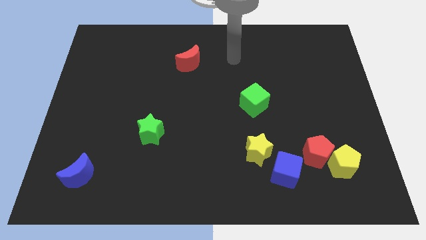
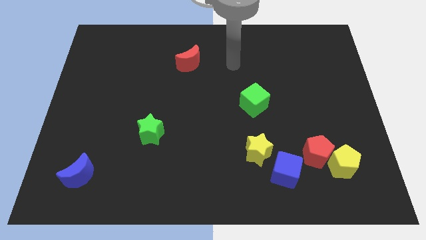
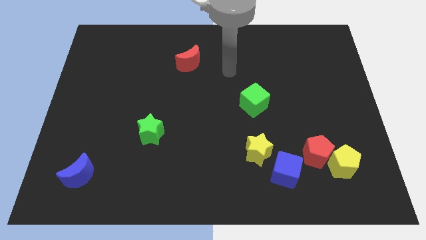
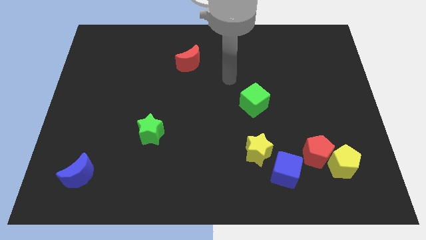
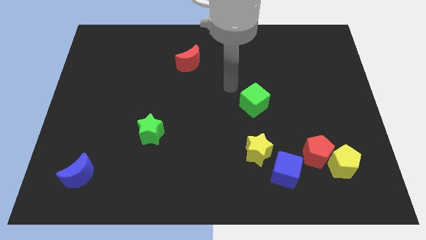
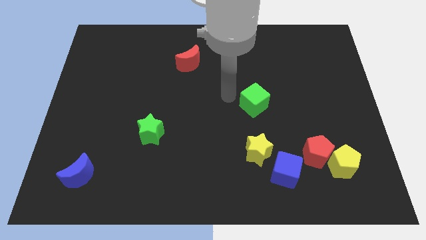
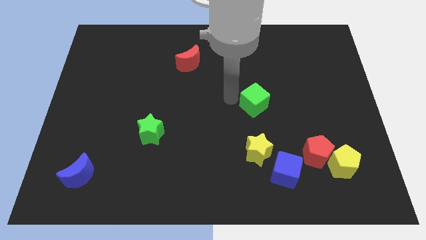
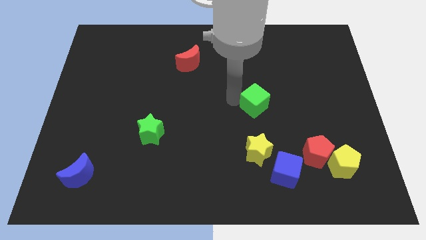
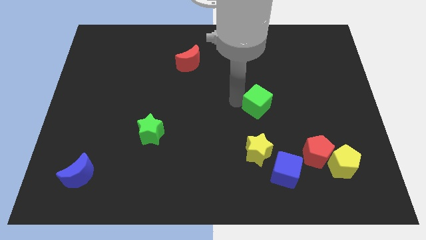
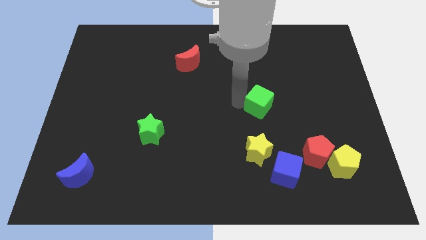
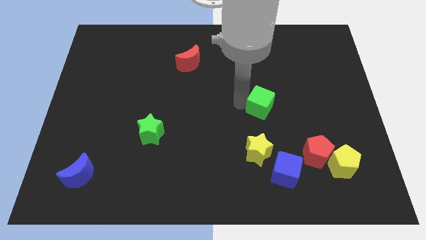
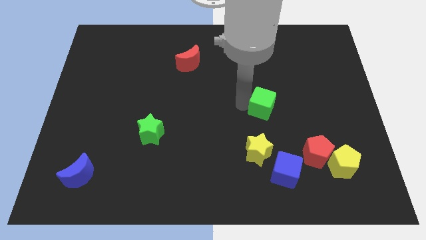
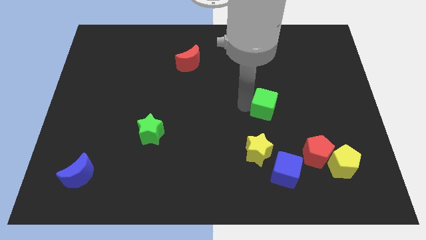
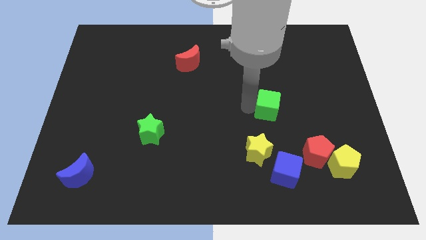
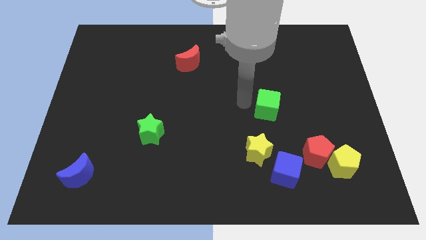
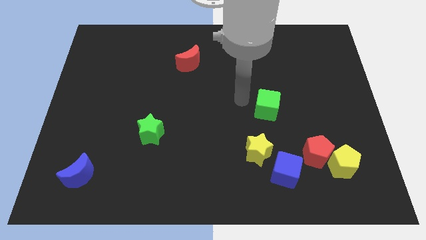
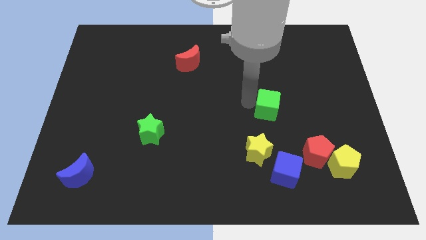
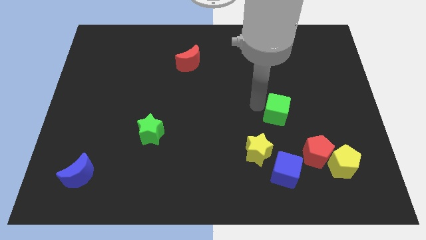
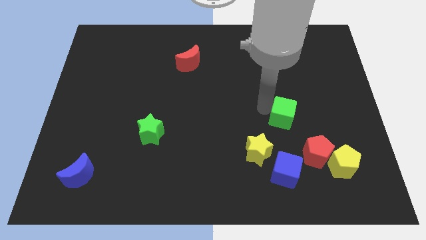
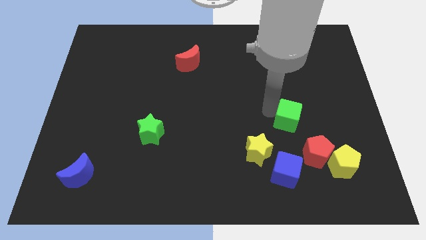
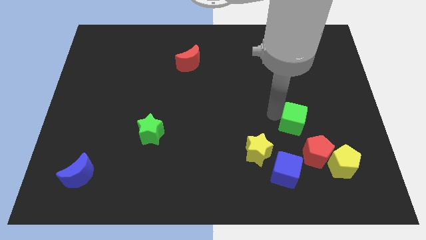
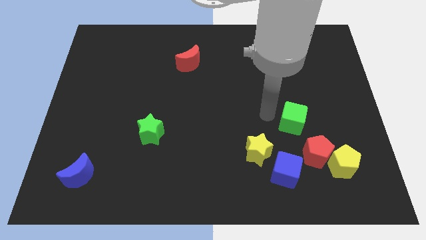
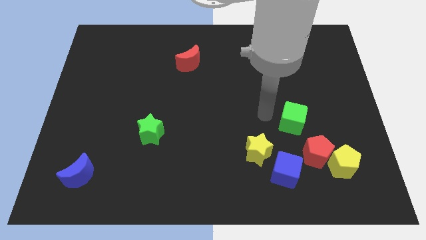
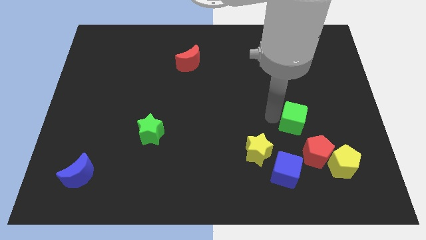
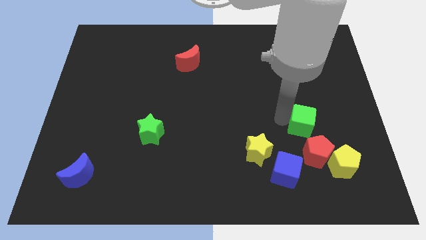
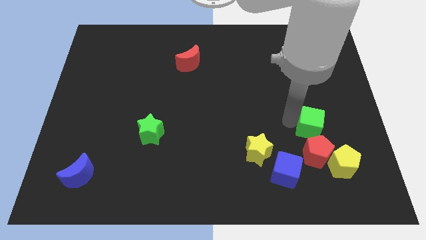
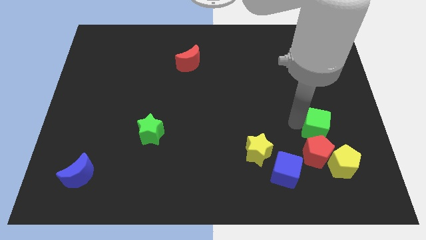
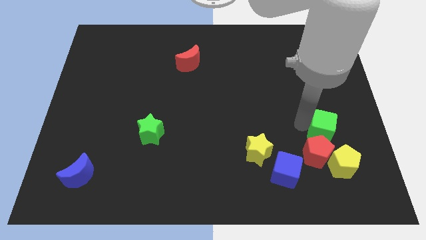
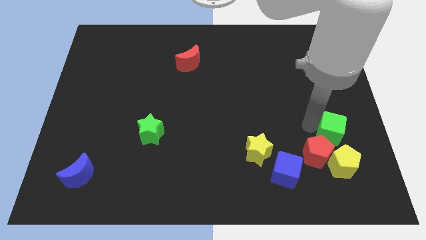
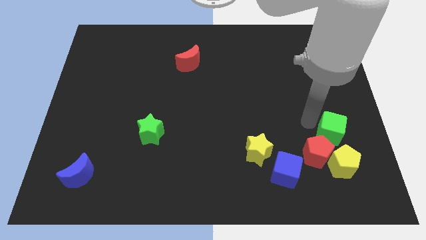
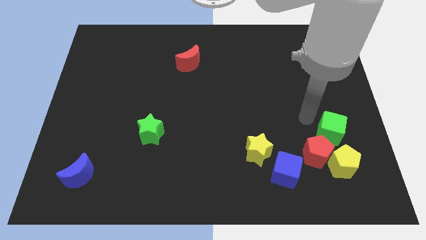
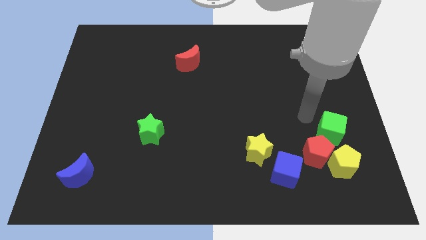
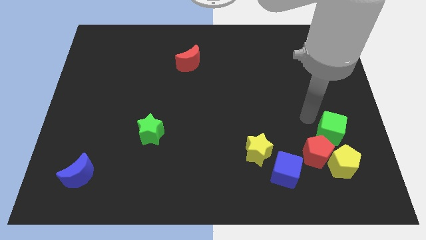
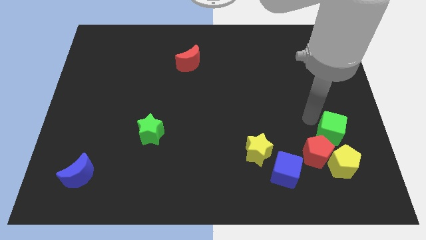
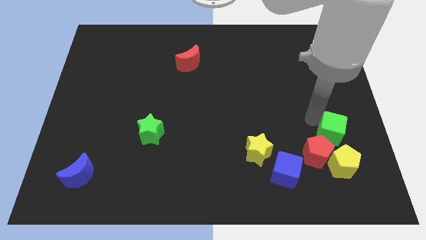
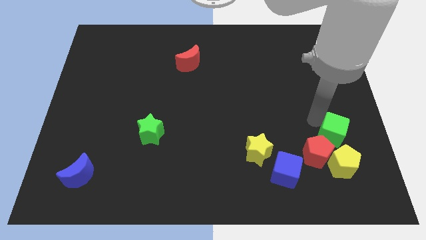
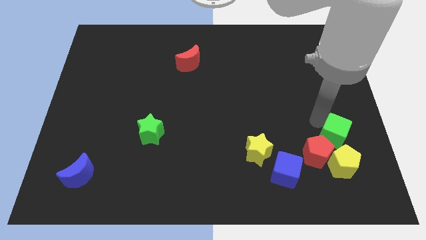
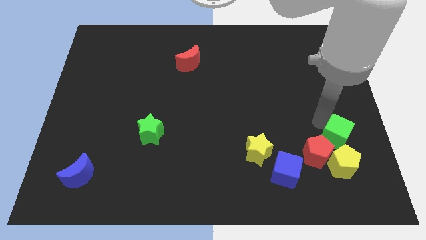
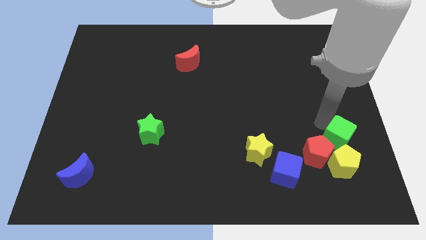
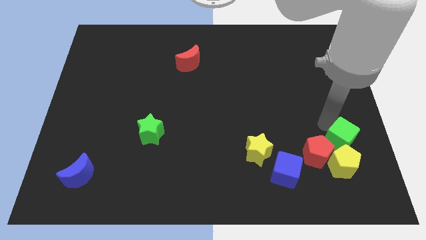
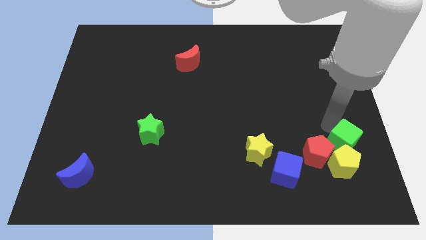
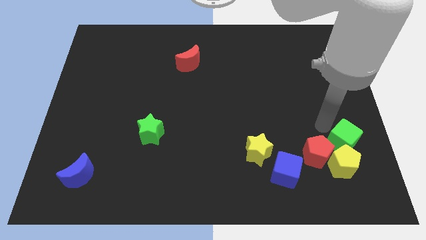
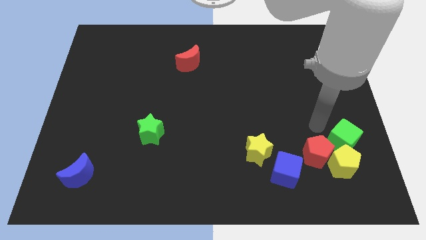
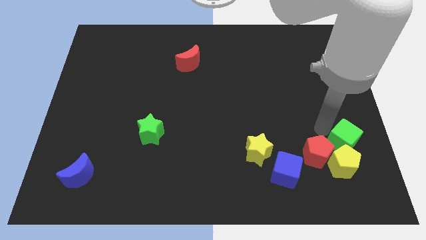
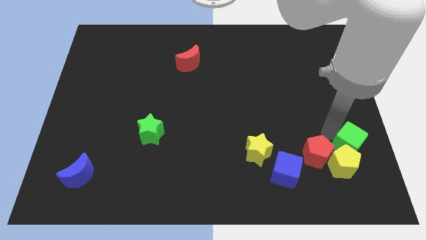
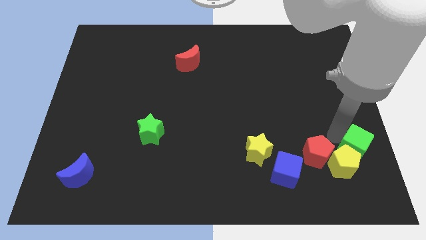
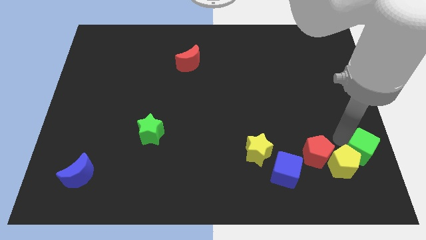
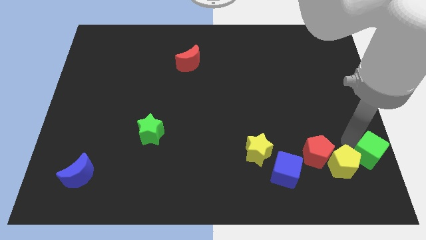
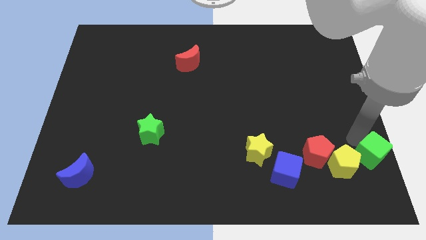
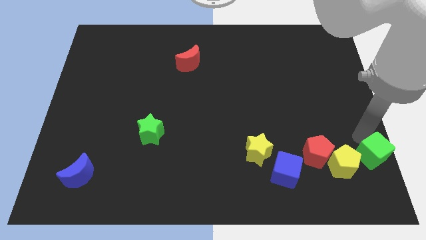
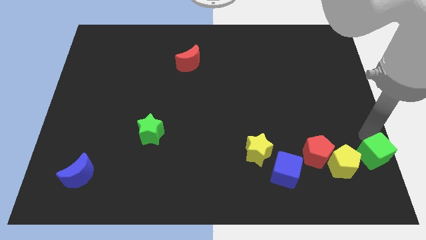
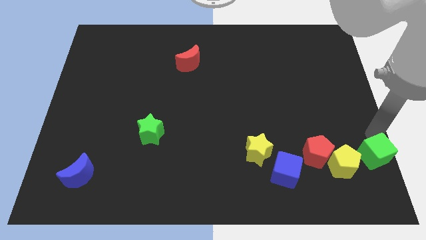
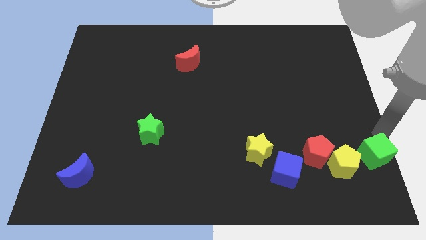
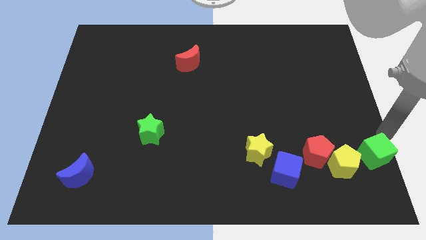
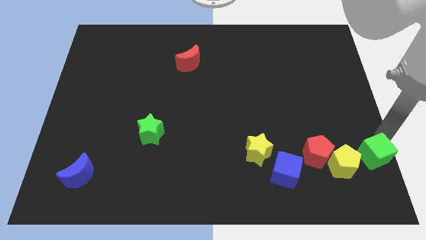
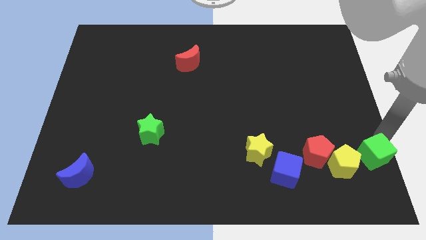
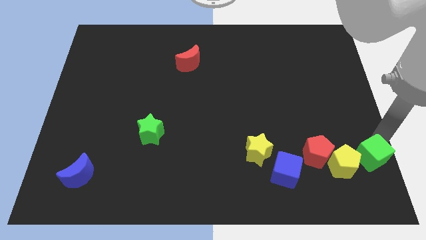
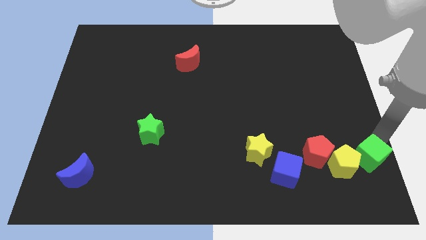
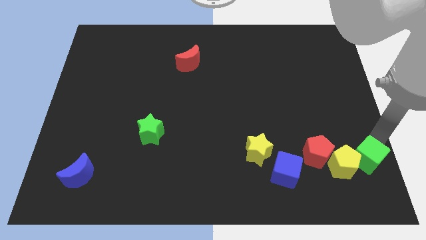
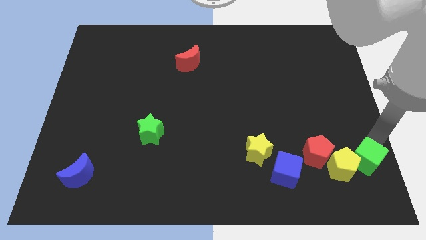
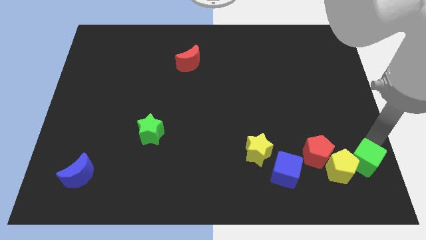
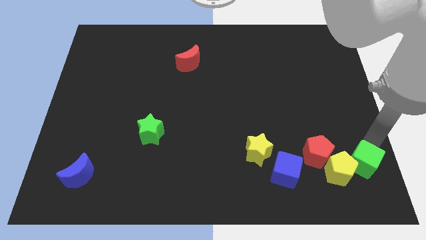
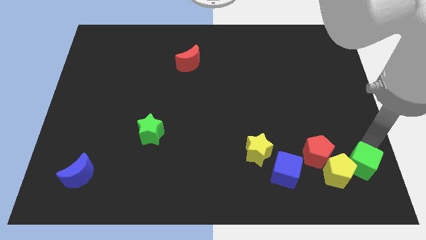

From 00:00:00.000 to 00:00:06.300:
put the green cube to the bottom right of the red pentagon

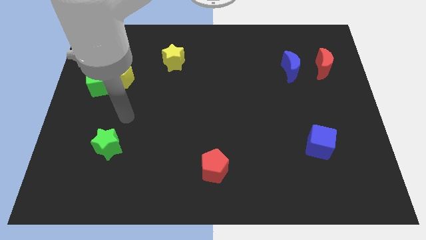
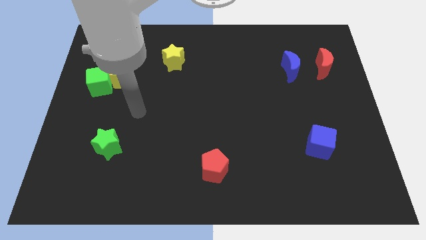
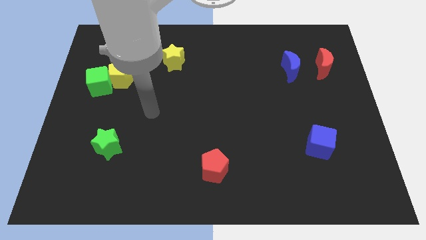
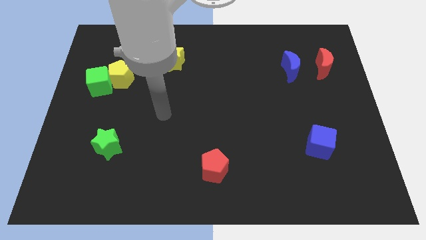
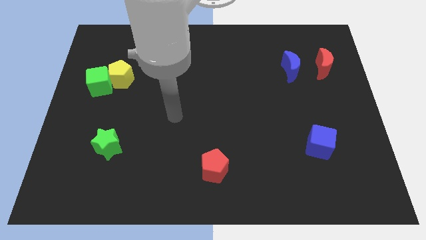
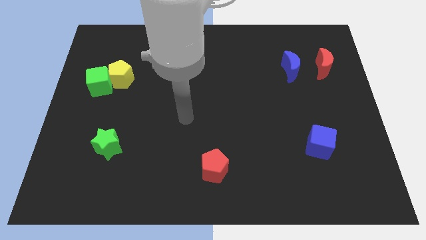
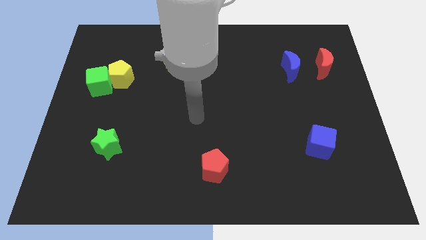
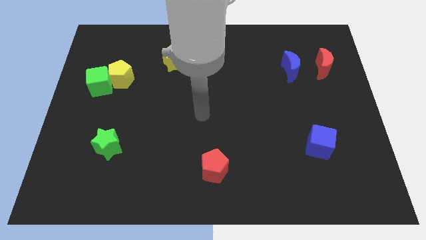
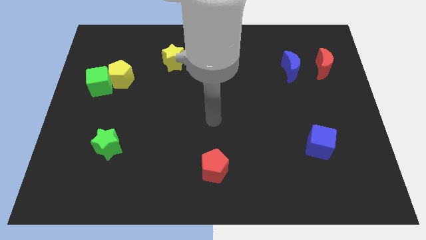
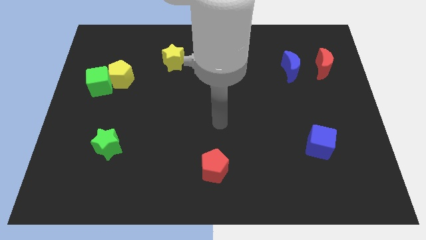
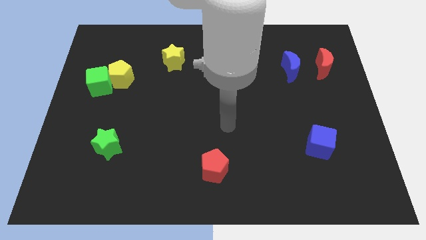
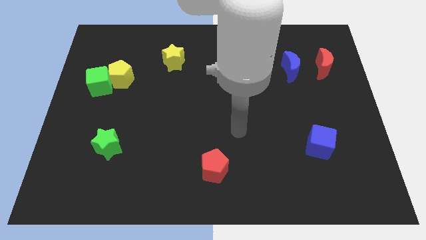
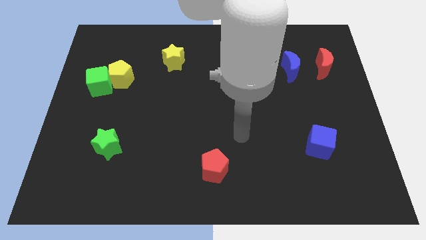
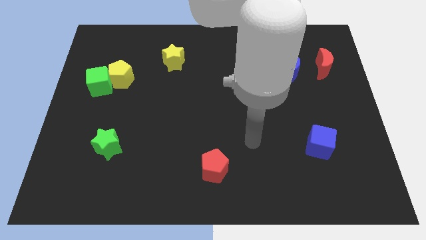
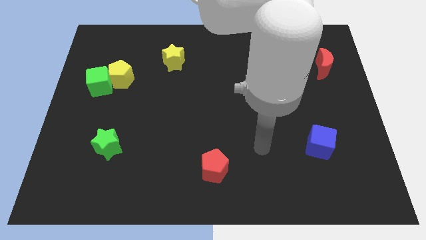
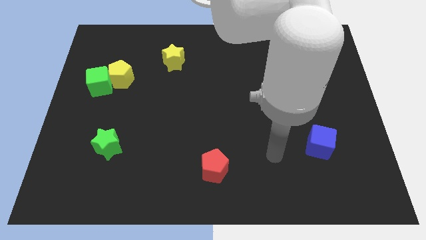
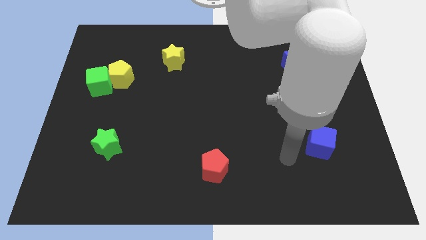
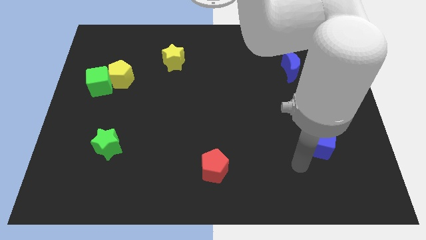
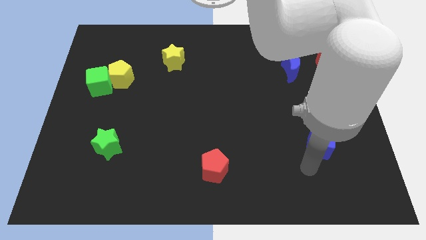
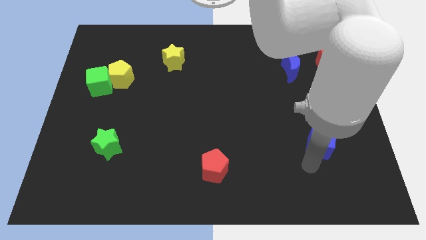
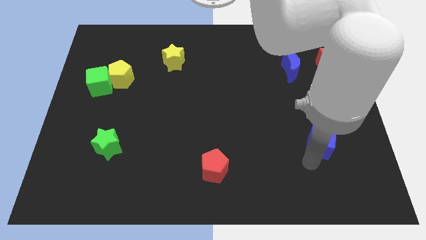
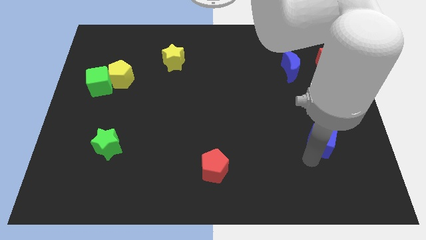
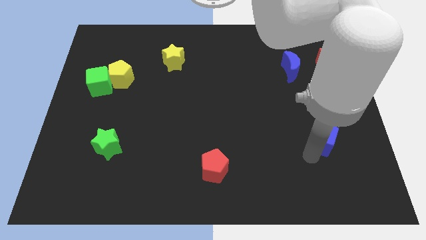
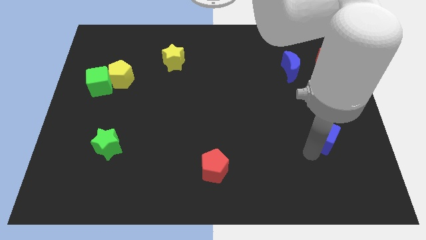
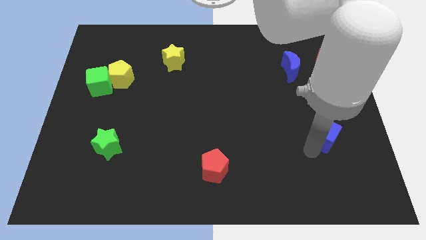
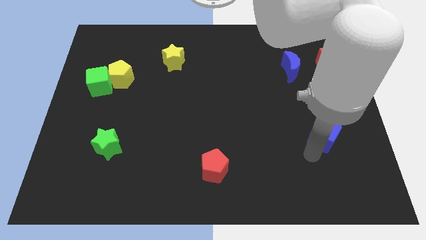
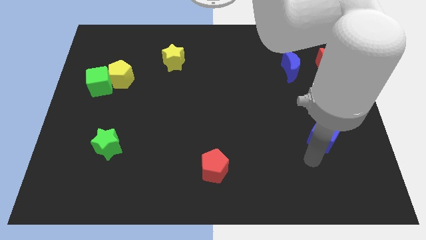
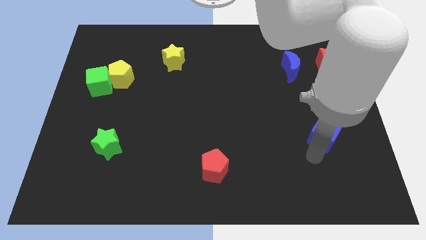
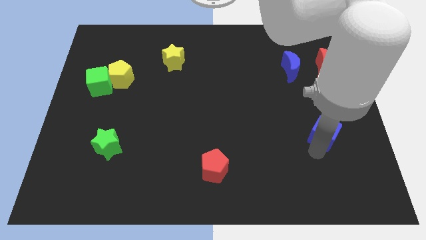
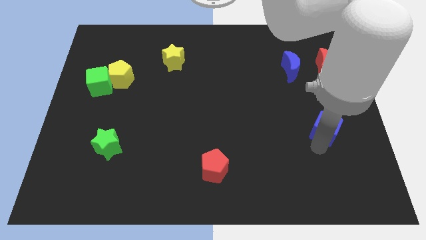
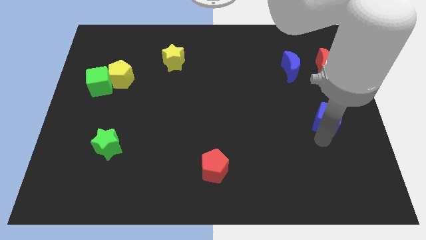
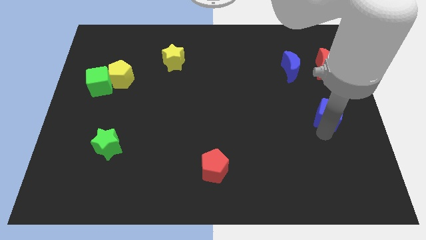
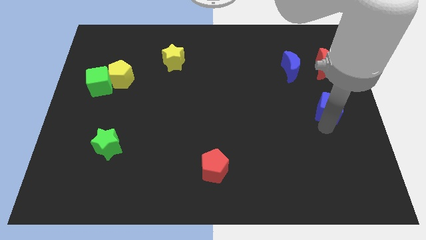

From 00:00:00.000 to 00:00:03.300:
put the blue cube below the red moon
